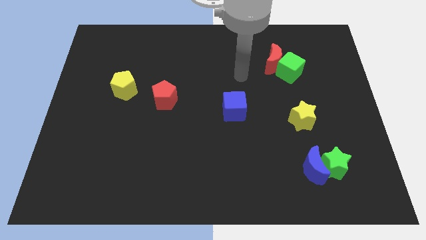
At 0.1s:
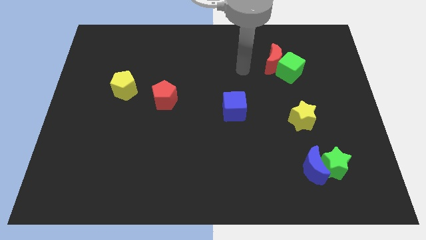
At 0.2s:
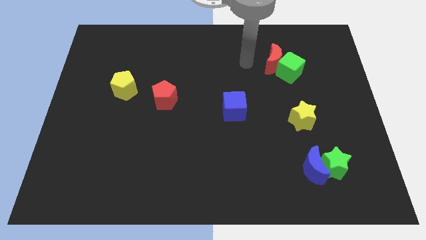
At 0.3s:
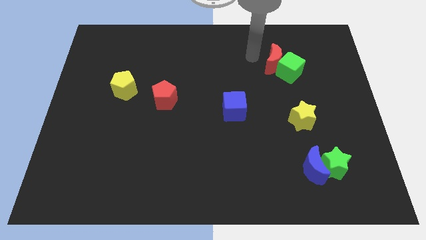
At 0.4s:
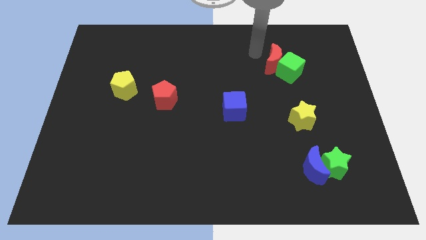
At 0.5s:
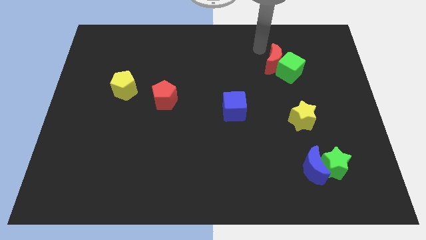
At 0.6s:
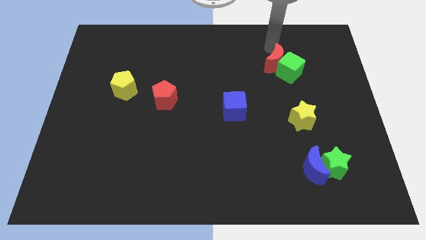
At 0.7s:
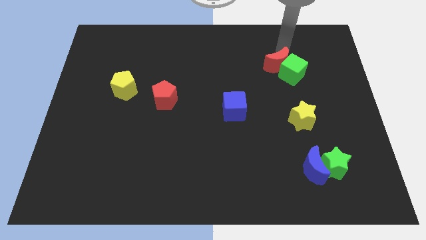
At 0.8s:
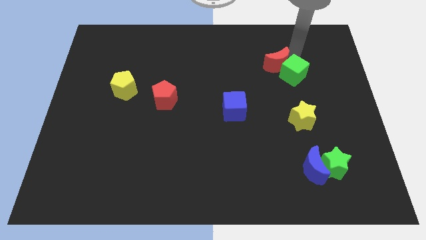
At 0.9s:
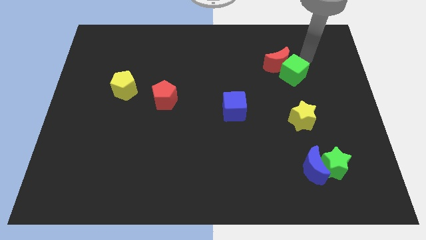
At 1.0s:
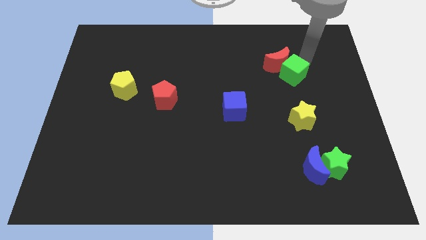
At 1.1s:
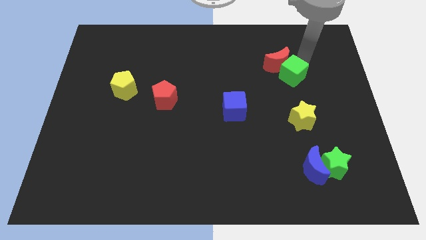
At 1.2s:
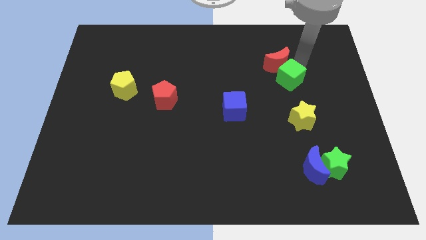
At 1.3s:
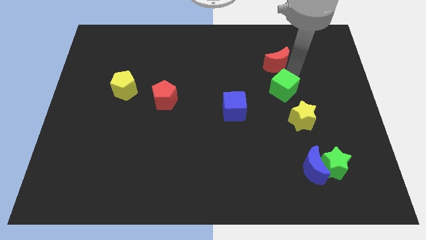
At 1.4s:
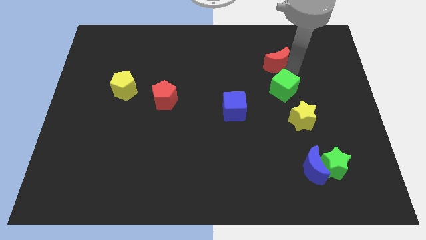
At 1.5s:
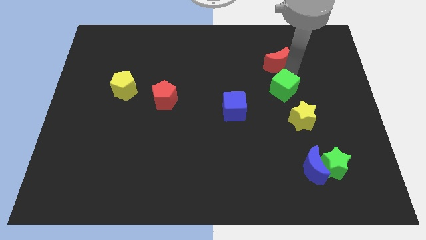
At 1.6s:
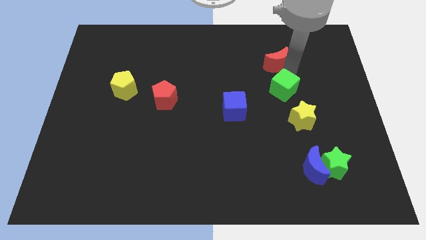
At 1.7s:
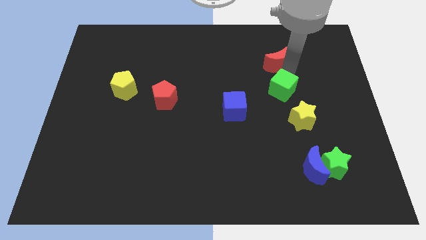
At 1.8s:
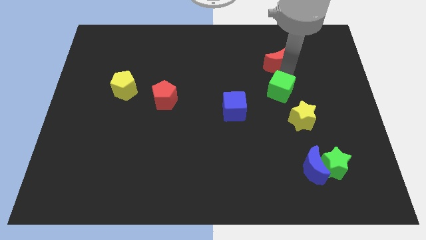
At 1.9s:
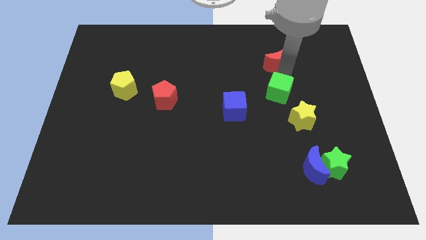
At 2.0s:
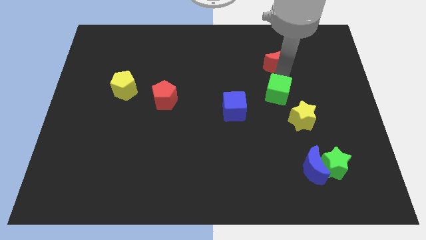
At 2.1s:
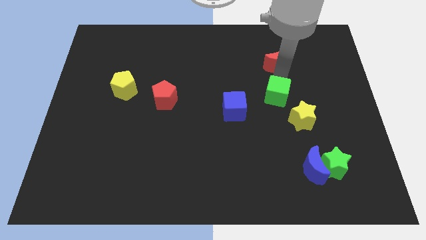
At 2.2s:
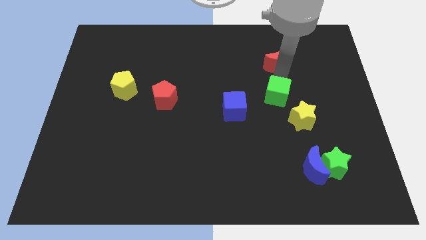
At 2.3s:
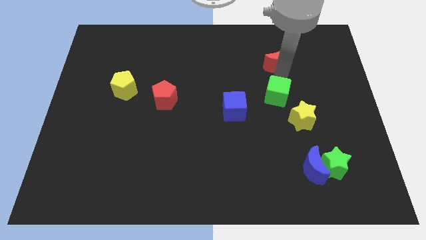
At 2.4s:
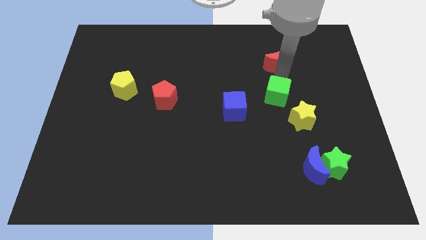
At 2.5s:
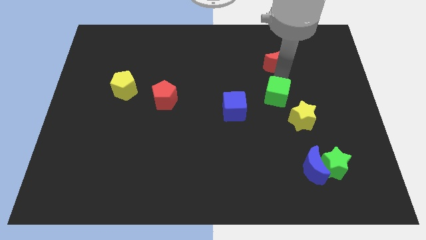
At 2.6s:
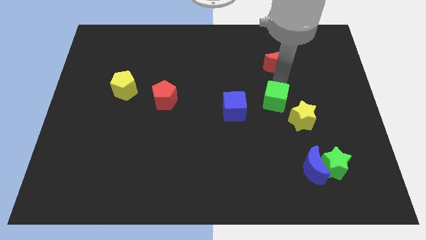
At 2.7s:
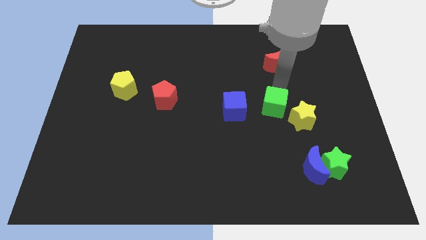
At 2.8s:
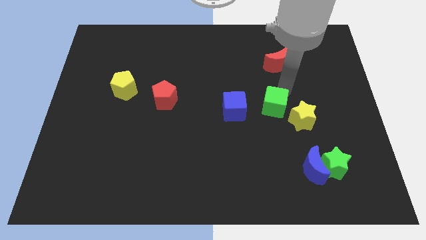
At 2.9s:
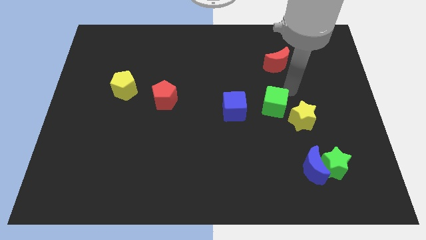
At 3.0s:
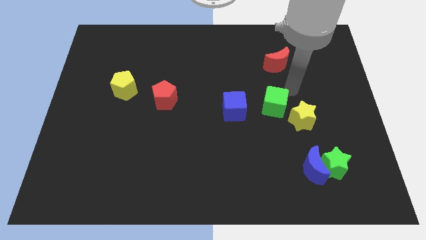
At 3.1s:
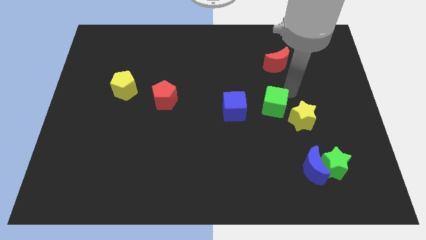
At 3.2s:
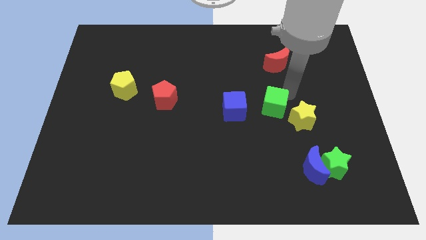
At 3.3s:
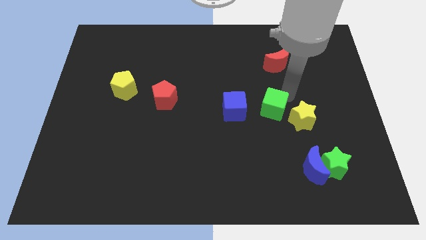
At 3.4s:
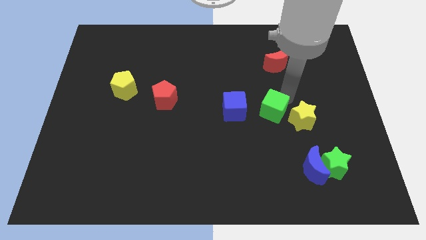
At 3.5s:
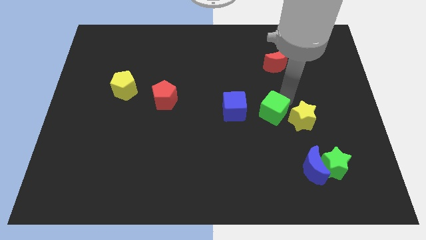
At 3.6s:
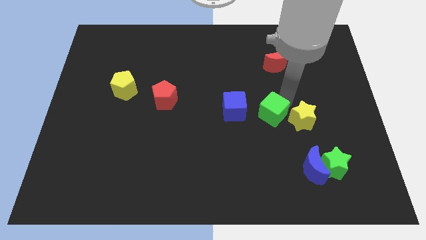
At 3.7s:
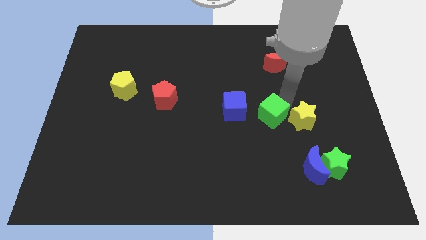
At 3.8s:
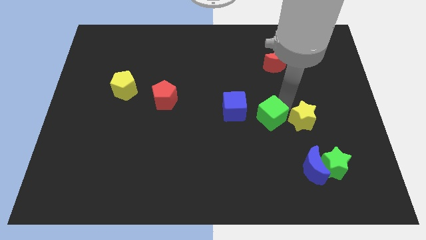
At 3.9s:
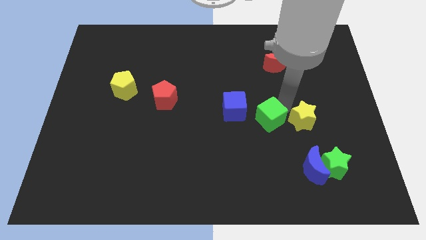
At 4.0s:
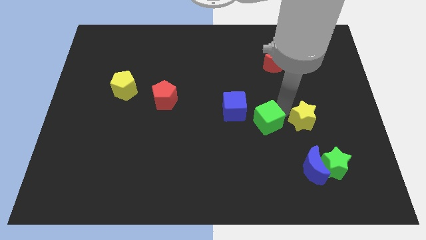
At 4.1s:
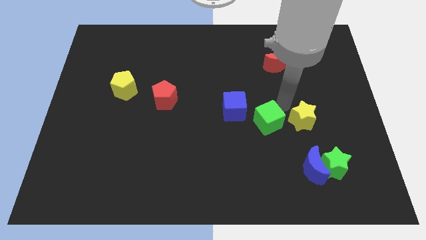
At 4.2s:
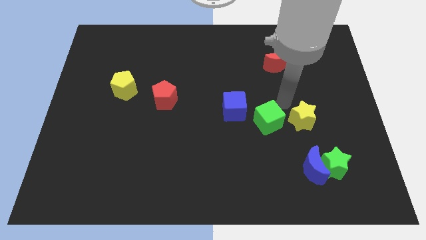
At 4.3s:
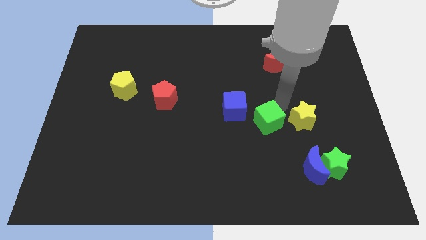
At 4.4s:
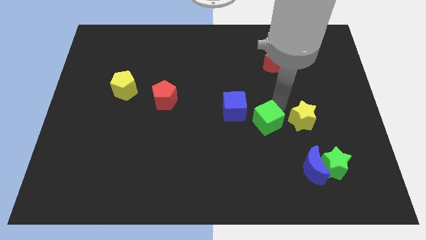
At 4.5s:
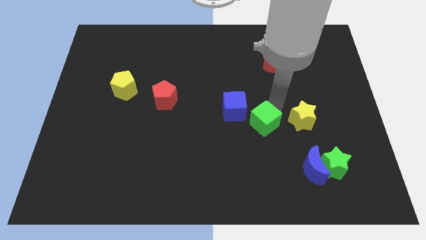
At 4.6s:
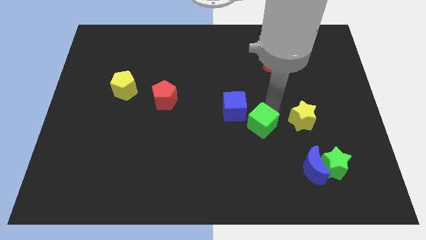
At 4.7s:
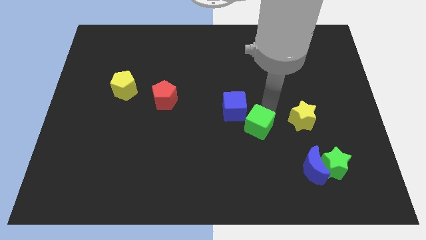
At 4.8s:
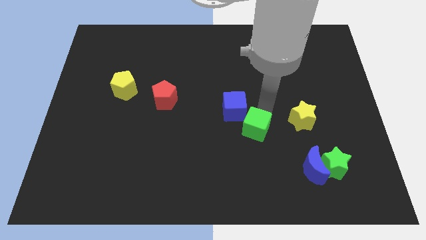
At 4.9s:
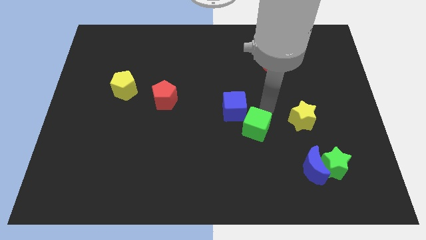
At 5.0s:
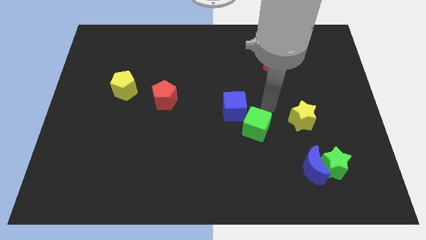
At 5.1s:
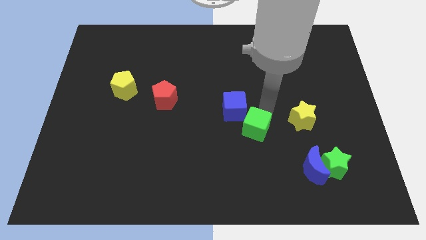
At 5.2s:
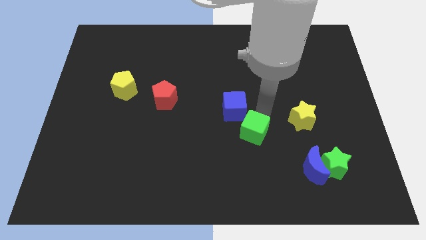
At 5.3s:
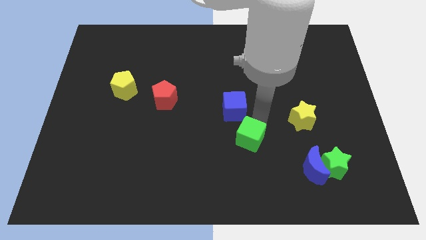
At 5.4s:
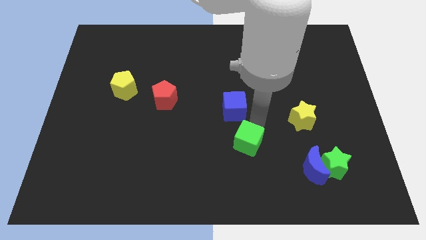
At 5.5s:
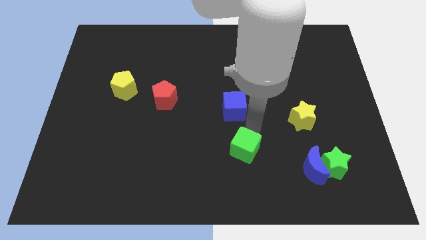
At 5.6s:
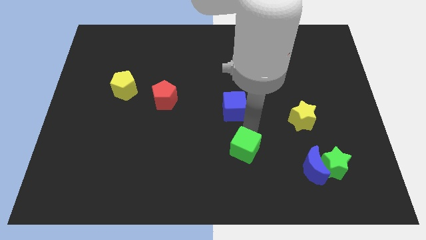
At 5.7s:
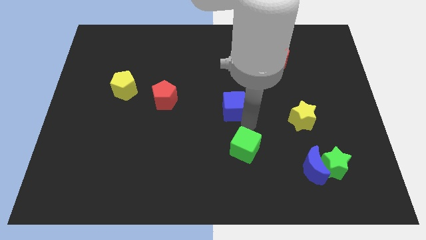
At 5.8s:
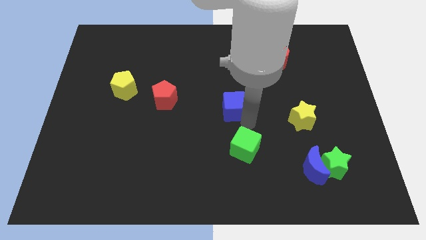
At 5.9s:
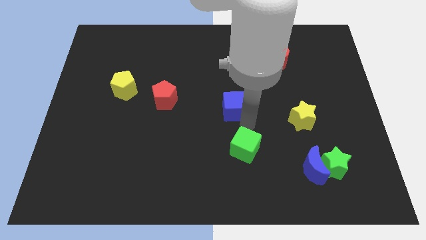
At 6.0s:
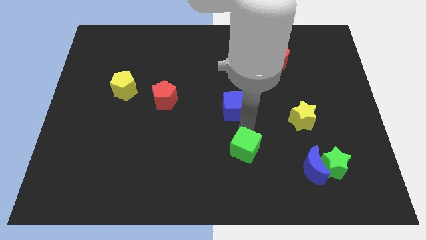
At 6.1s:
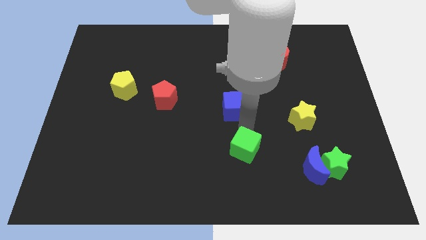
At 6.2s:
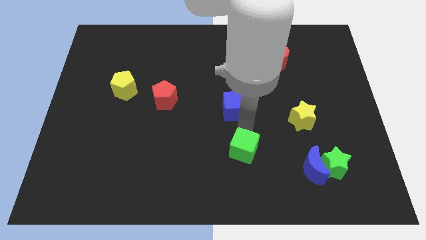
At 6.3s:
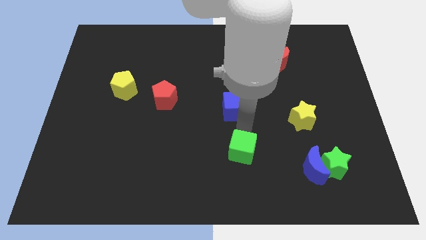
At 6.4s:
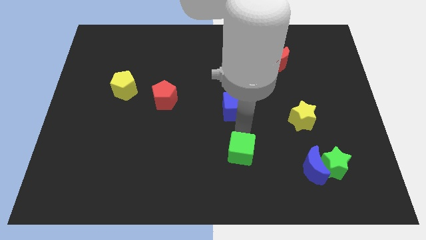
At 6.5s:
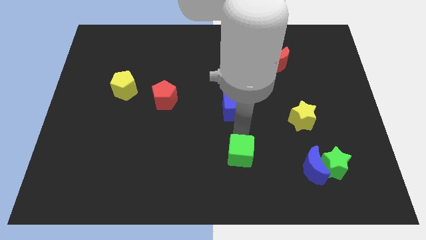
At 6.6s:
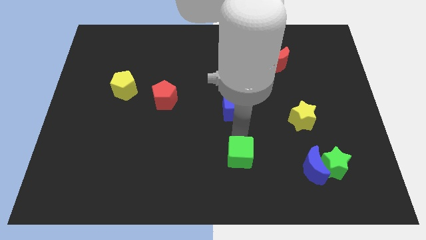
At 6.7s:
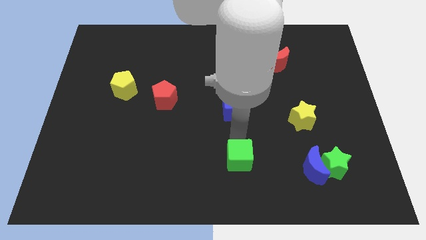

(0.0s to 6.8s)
slide the green cube to the bottom
